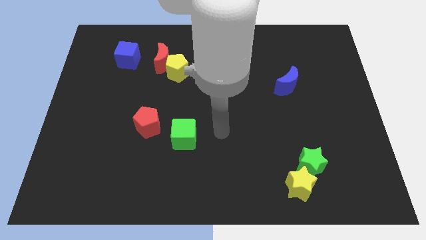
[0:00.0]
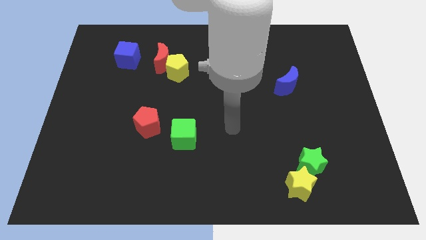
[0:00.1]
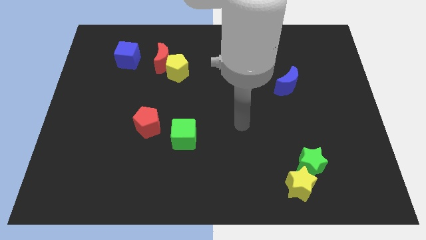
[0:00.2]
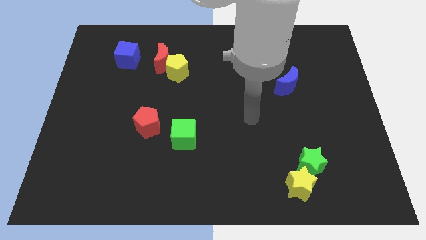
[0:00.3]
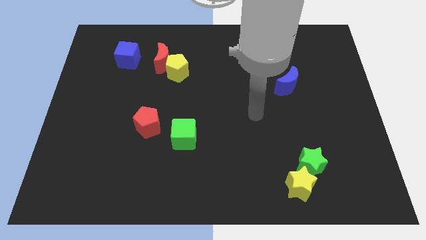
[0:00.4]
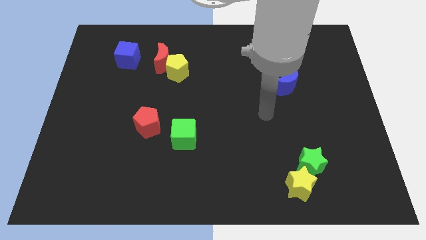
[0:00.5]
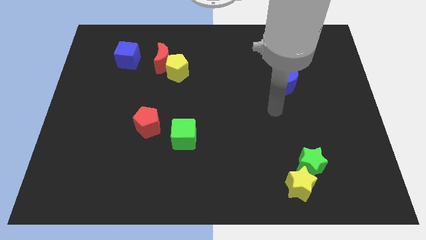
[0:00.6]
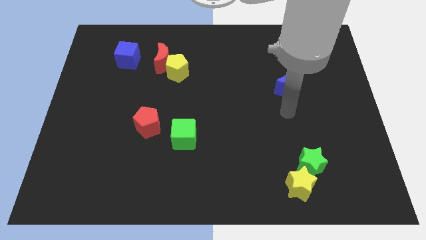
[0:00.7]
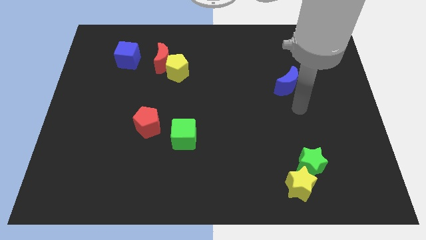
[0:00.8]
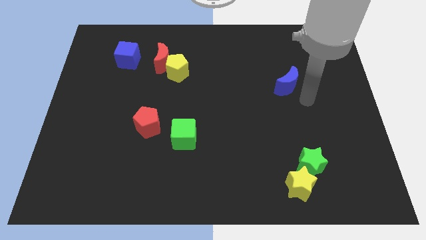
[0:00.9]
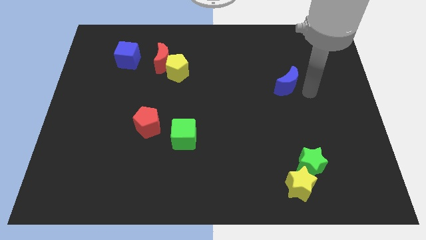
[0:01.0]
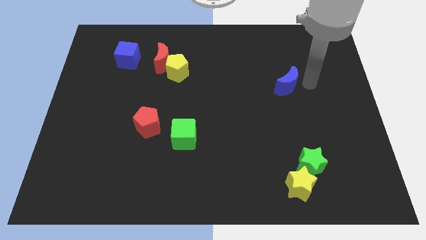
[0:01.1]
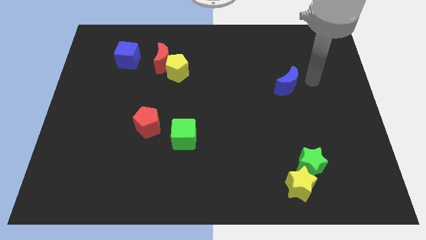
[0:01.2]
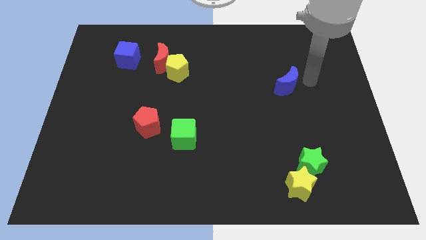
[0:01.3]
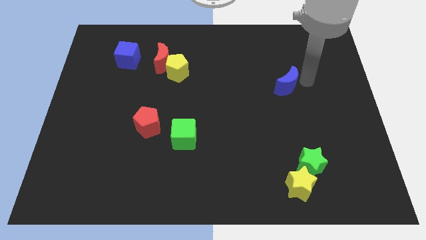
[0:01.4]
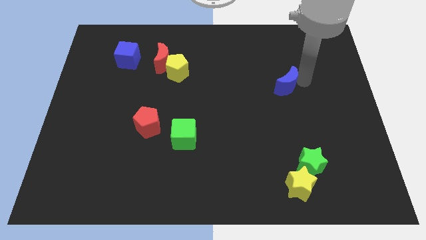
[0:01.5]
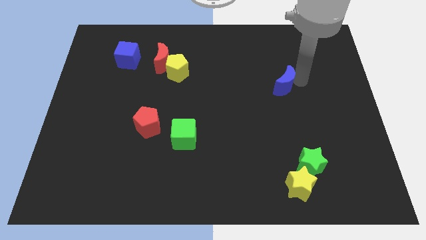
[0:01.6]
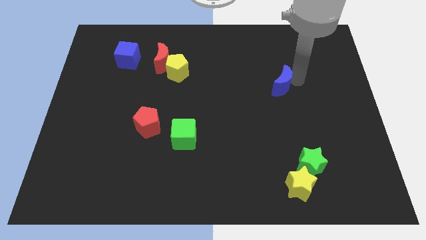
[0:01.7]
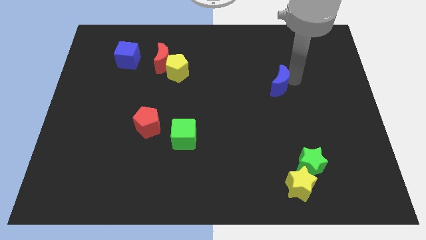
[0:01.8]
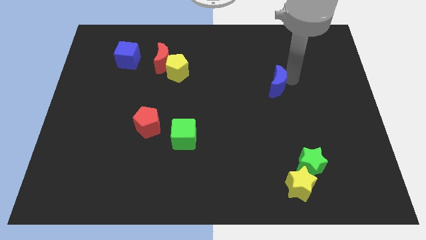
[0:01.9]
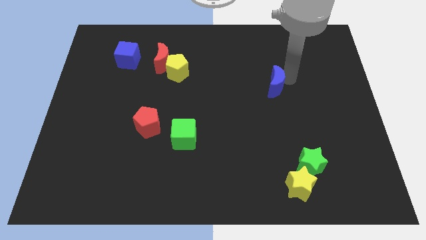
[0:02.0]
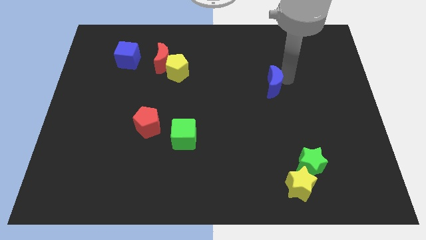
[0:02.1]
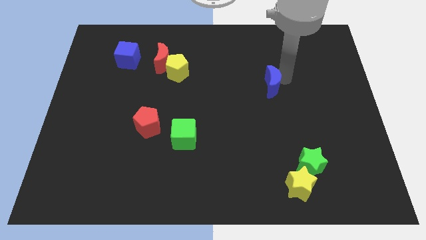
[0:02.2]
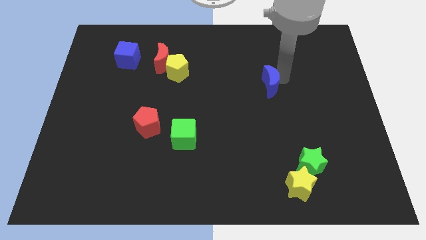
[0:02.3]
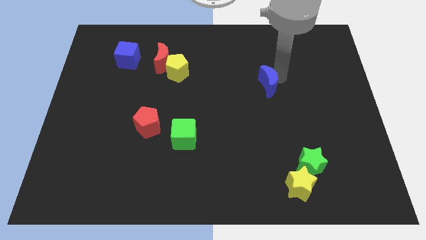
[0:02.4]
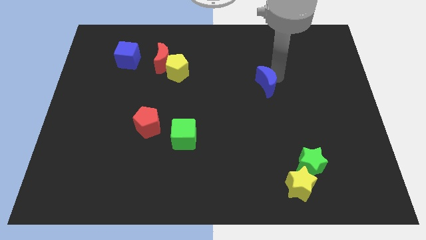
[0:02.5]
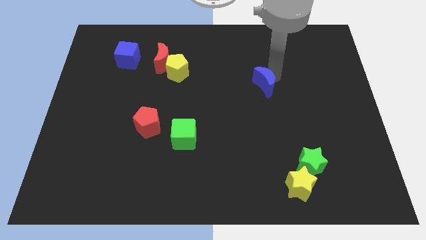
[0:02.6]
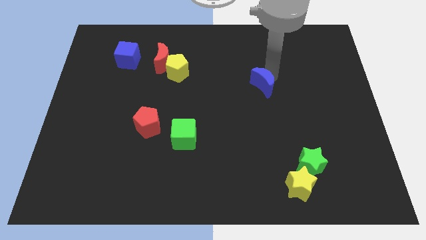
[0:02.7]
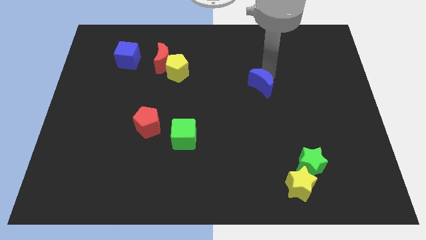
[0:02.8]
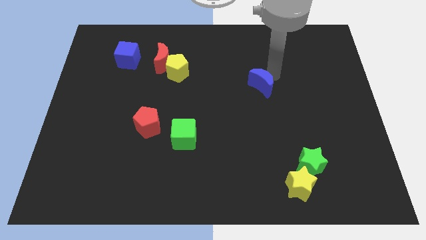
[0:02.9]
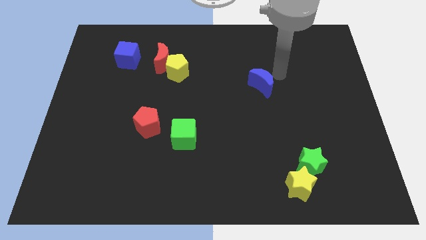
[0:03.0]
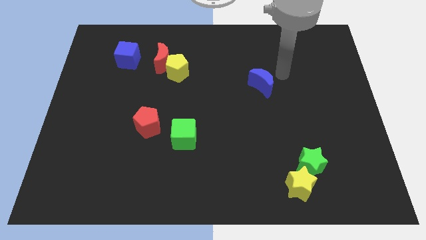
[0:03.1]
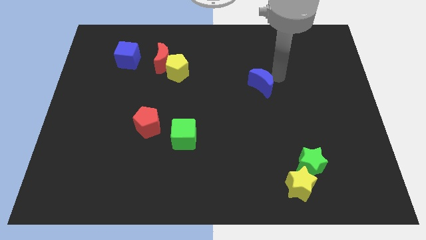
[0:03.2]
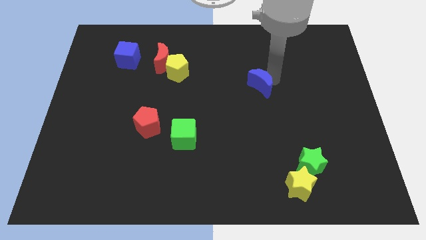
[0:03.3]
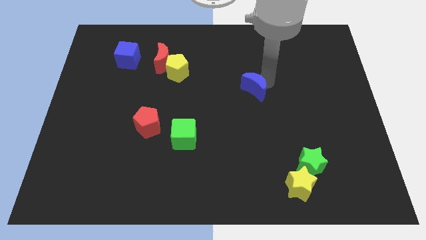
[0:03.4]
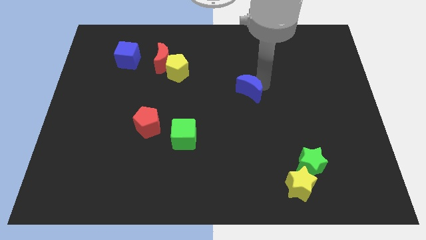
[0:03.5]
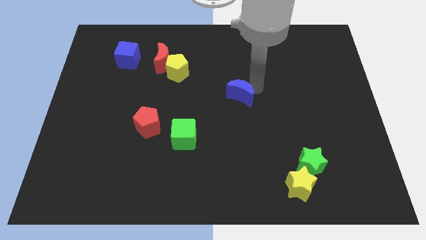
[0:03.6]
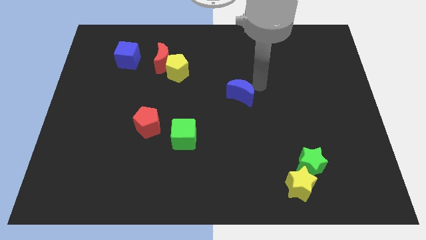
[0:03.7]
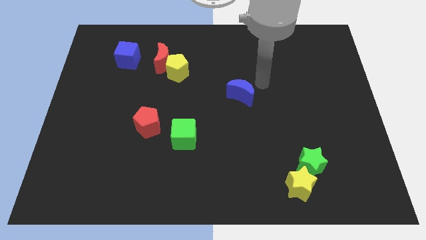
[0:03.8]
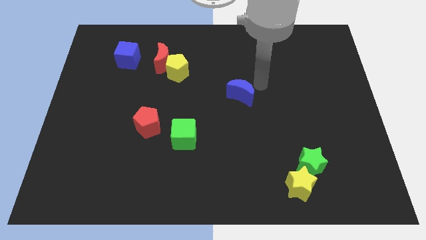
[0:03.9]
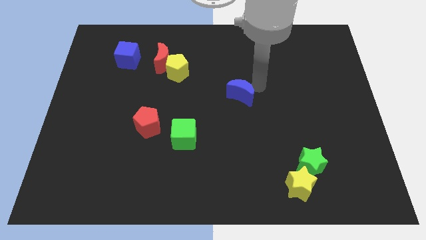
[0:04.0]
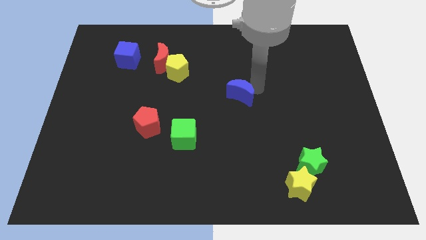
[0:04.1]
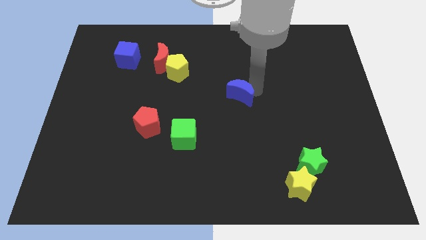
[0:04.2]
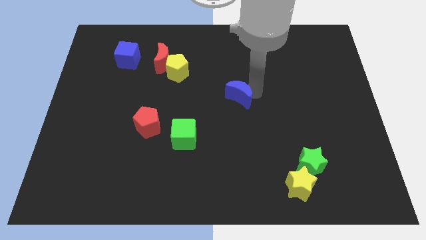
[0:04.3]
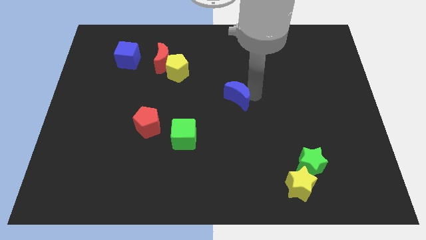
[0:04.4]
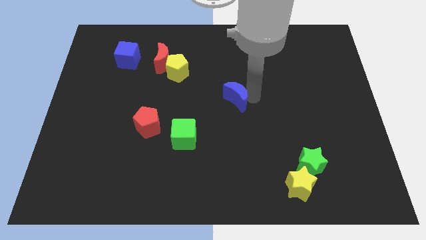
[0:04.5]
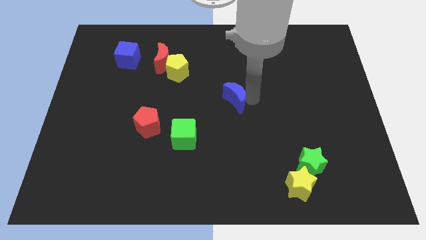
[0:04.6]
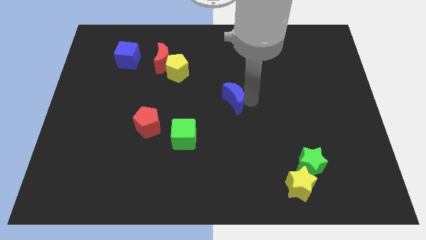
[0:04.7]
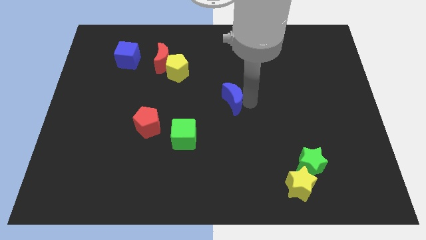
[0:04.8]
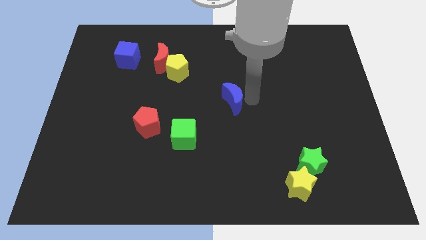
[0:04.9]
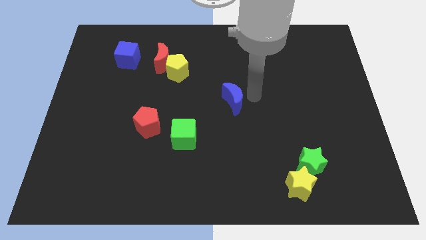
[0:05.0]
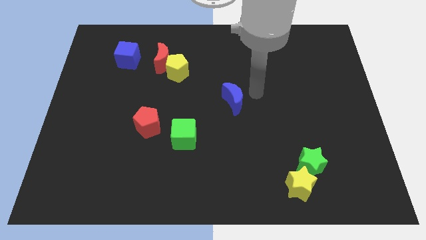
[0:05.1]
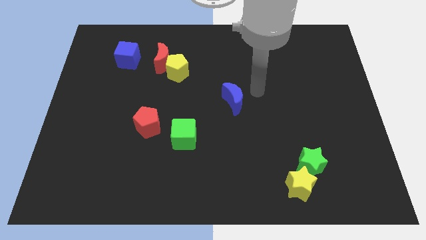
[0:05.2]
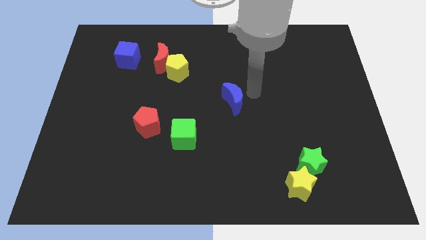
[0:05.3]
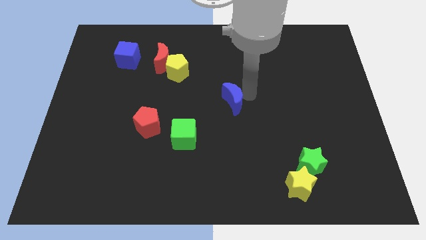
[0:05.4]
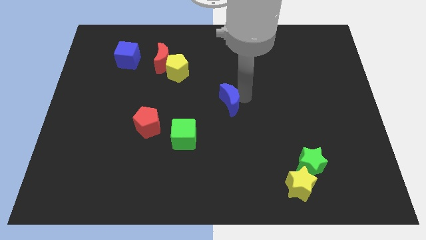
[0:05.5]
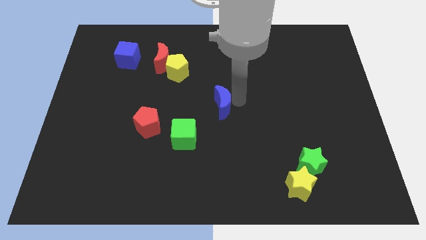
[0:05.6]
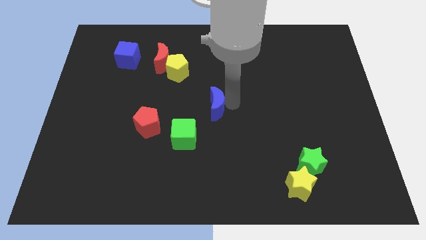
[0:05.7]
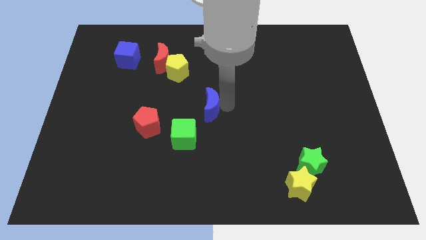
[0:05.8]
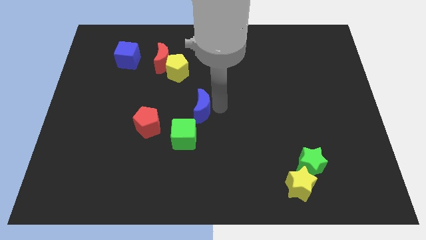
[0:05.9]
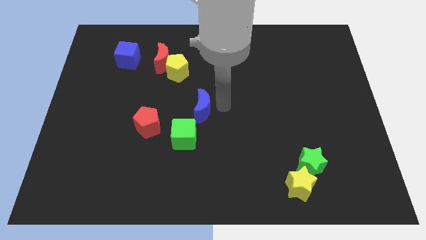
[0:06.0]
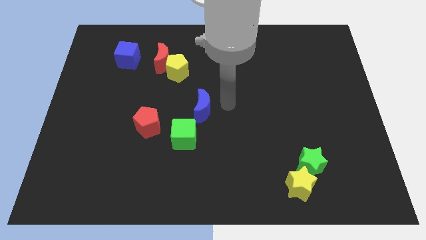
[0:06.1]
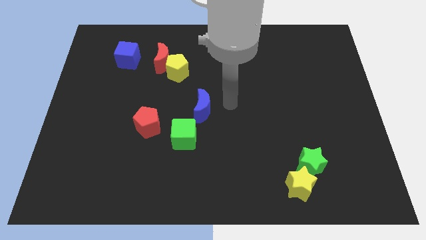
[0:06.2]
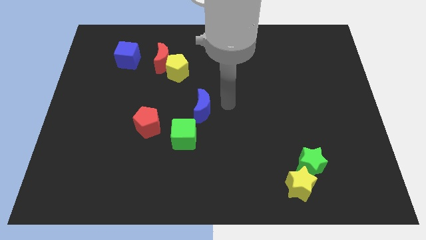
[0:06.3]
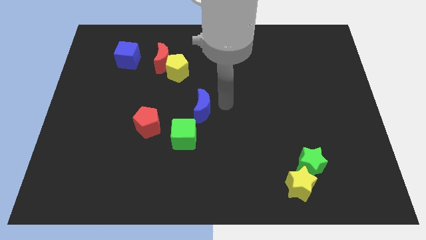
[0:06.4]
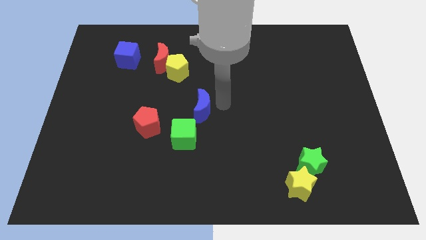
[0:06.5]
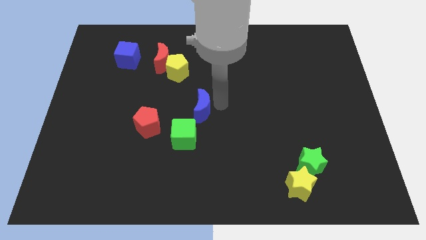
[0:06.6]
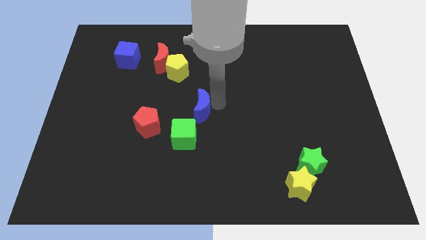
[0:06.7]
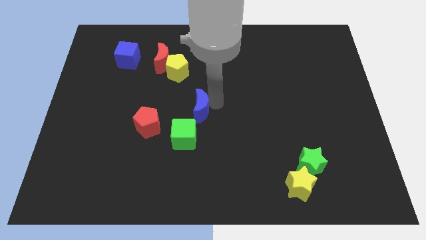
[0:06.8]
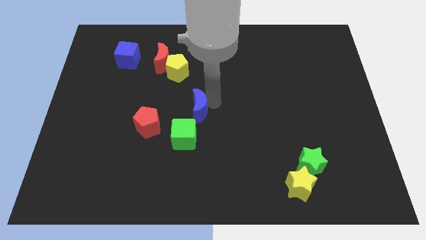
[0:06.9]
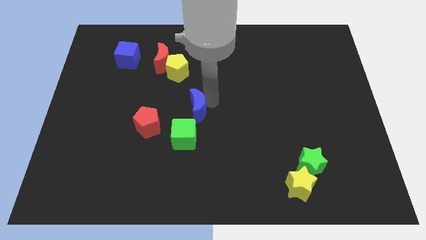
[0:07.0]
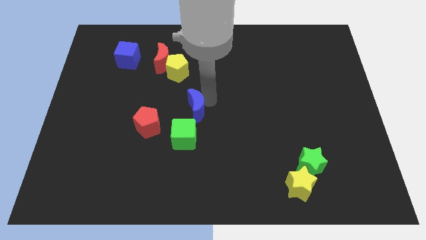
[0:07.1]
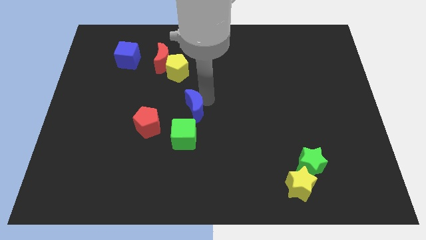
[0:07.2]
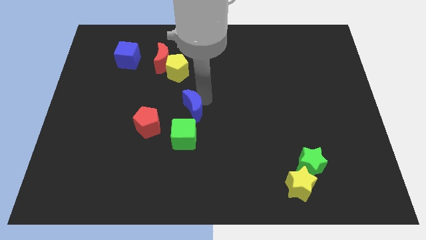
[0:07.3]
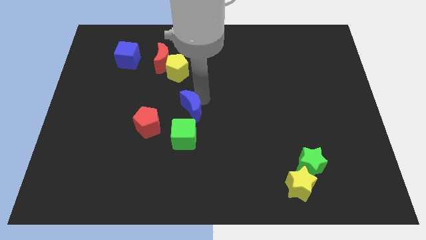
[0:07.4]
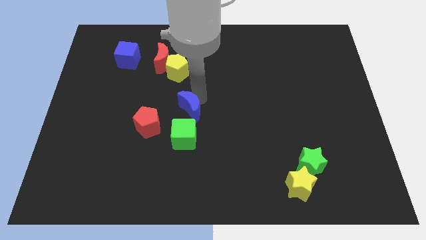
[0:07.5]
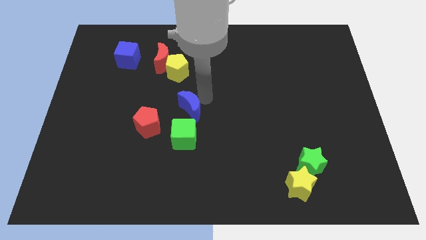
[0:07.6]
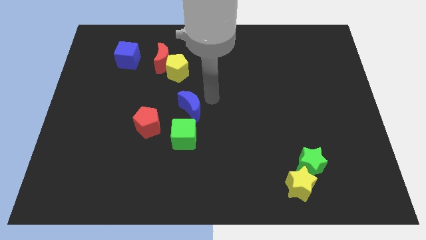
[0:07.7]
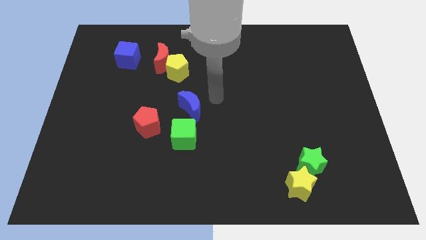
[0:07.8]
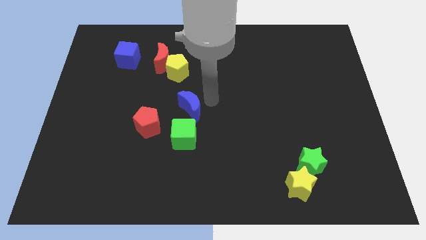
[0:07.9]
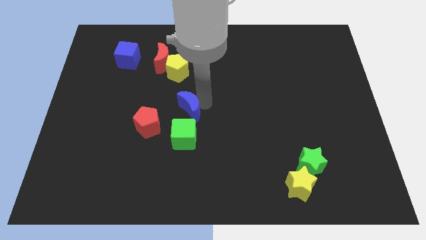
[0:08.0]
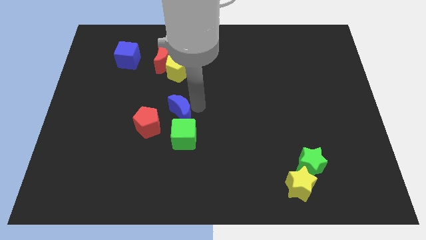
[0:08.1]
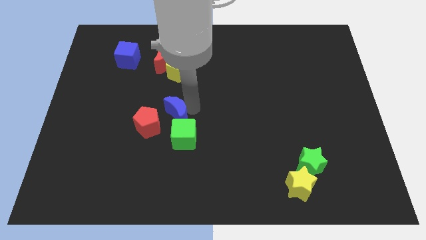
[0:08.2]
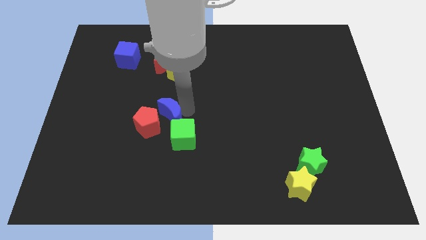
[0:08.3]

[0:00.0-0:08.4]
put the blue moon close to the red pentagon
